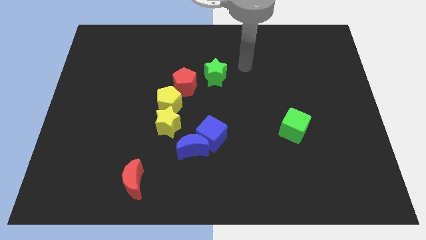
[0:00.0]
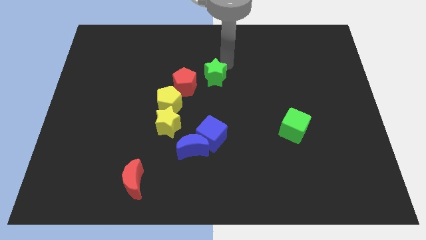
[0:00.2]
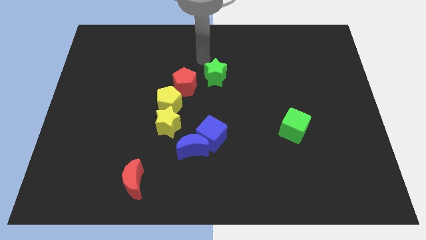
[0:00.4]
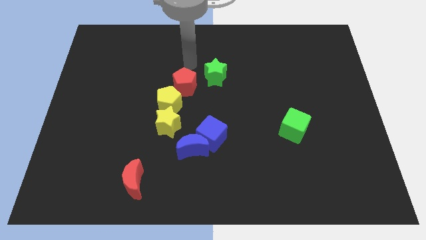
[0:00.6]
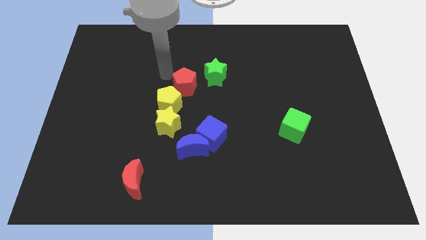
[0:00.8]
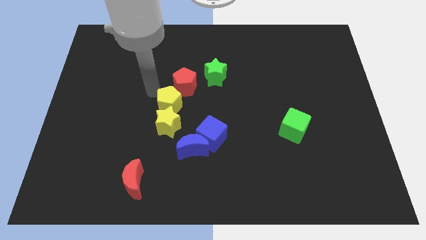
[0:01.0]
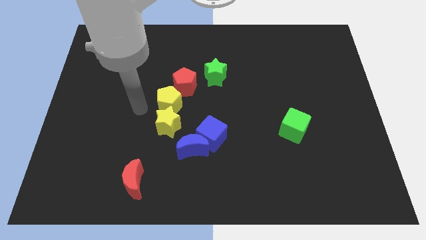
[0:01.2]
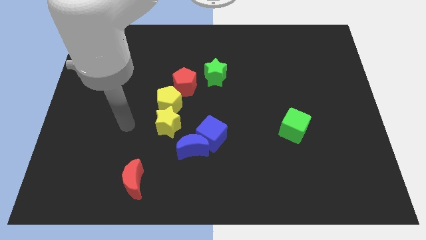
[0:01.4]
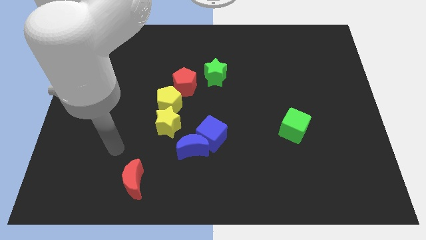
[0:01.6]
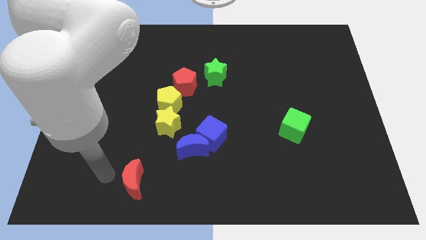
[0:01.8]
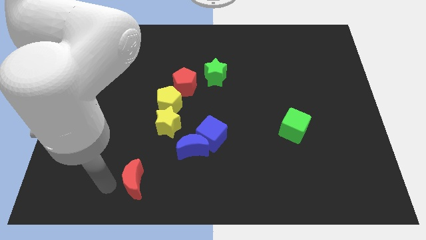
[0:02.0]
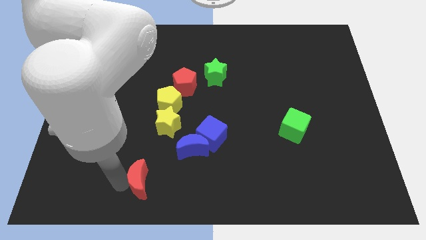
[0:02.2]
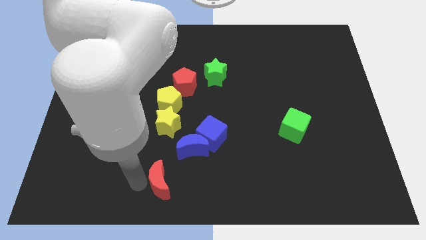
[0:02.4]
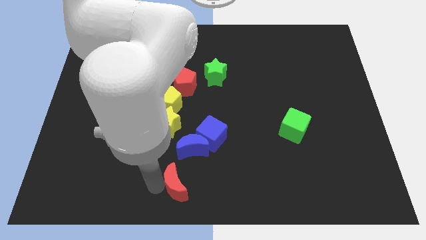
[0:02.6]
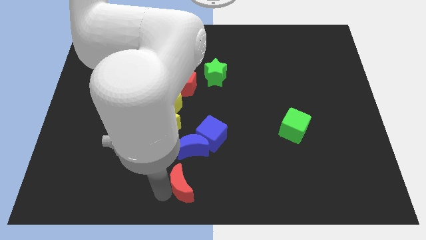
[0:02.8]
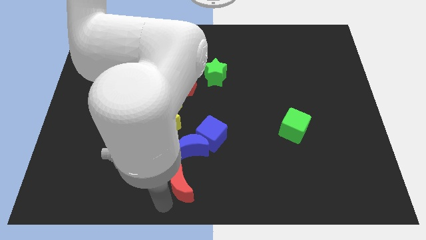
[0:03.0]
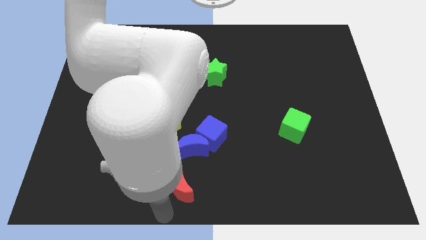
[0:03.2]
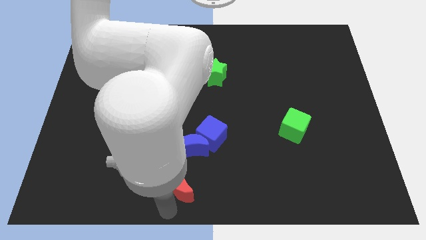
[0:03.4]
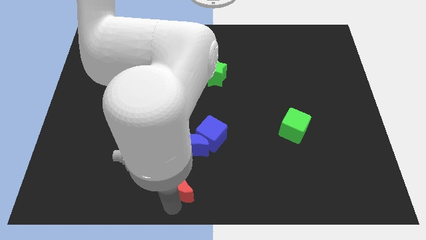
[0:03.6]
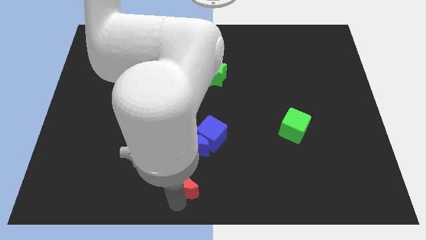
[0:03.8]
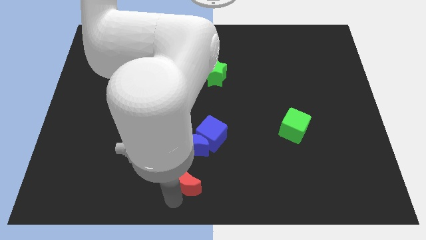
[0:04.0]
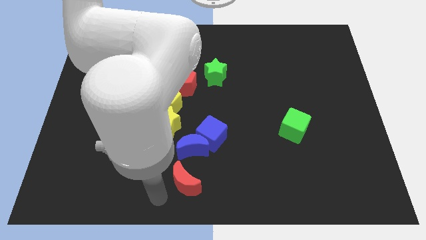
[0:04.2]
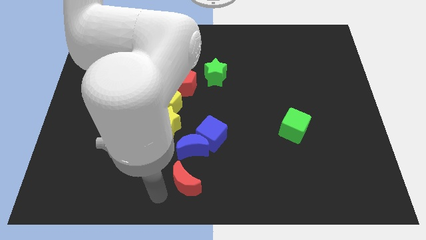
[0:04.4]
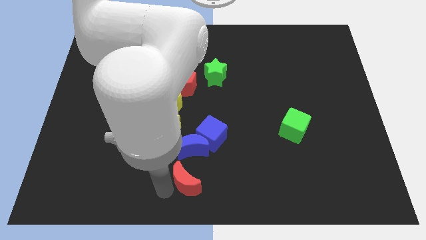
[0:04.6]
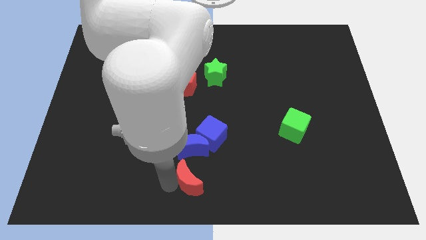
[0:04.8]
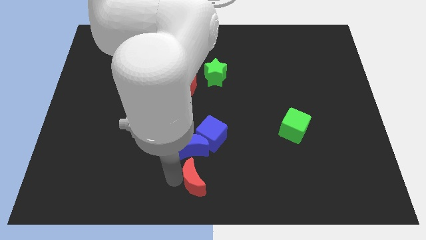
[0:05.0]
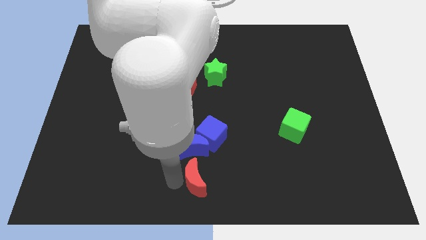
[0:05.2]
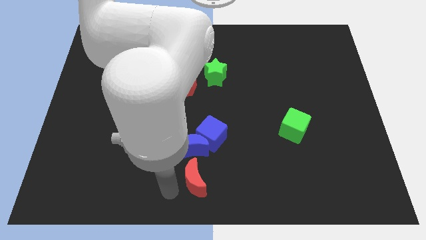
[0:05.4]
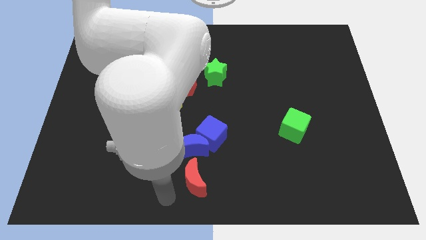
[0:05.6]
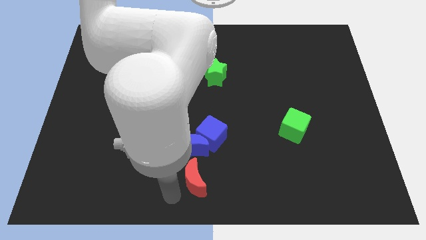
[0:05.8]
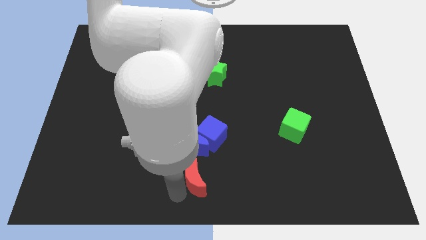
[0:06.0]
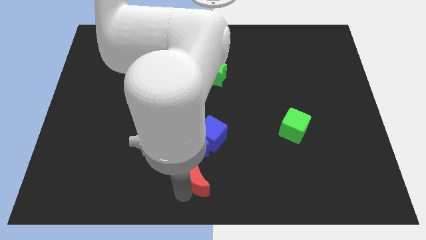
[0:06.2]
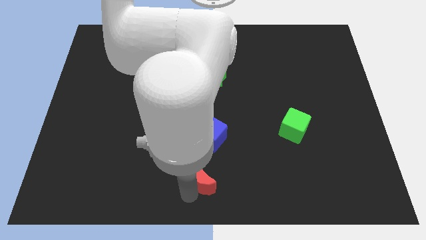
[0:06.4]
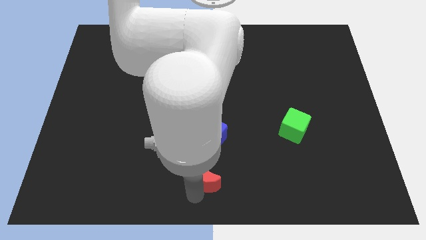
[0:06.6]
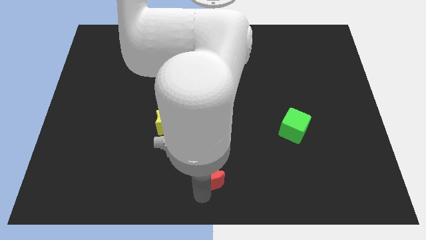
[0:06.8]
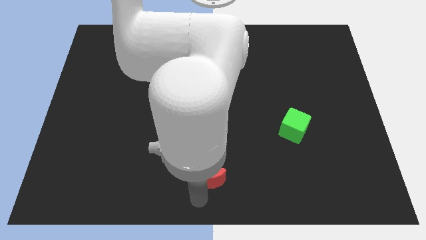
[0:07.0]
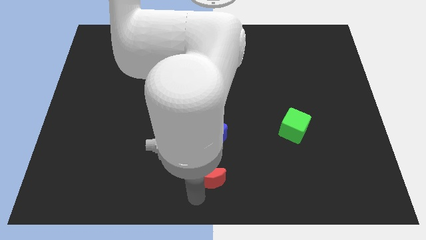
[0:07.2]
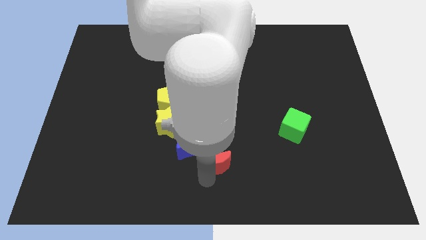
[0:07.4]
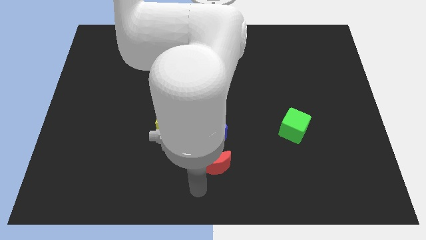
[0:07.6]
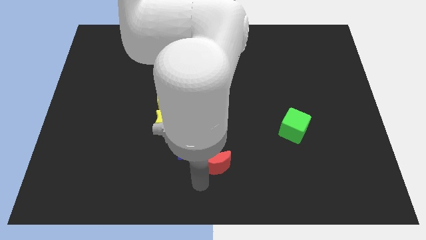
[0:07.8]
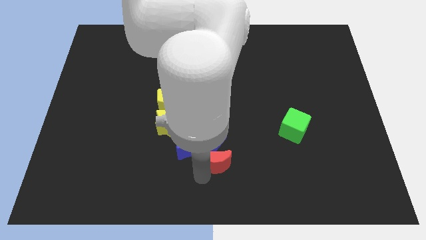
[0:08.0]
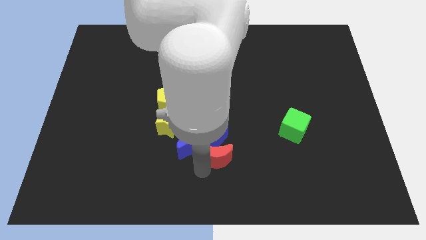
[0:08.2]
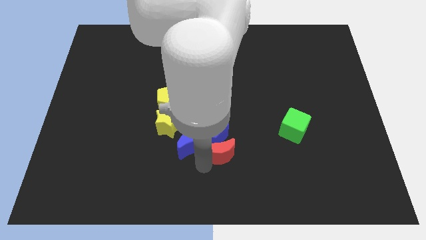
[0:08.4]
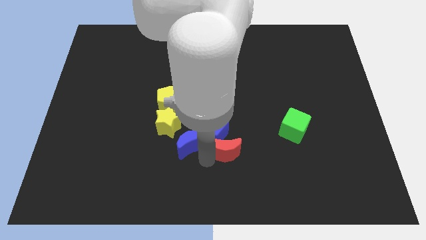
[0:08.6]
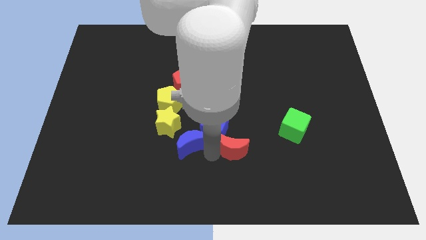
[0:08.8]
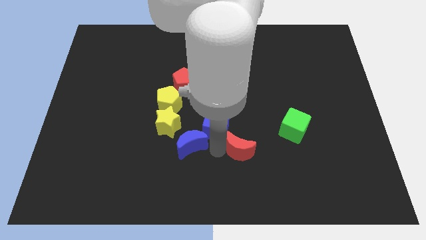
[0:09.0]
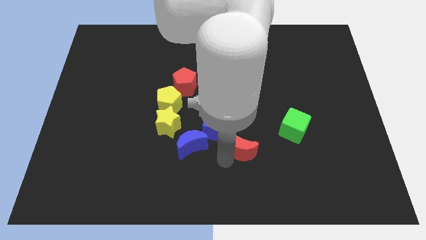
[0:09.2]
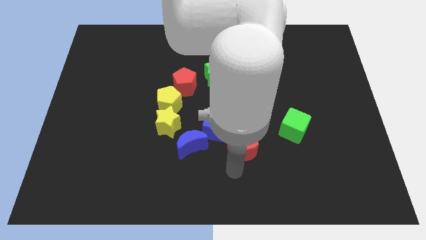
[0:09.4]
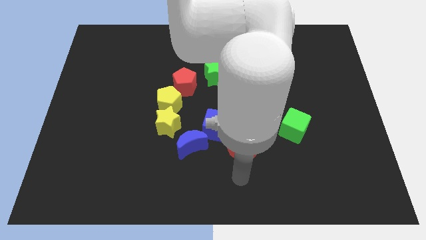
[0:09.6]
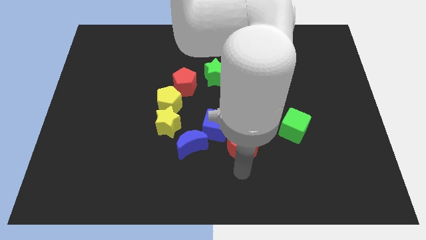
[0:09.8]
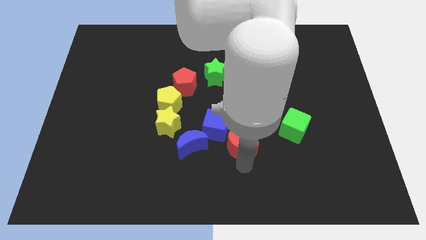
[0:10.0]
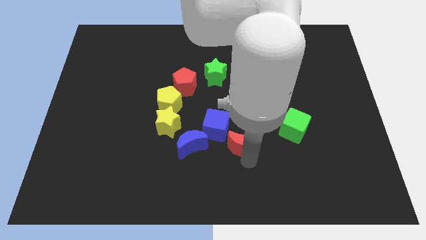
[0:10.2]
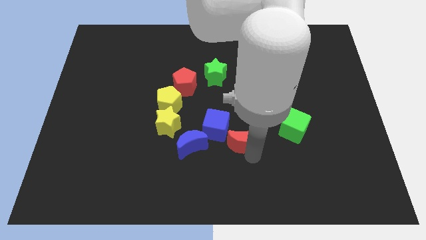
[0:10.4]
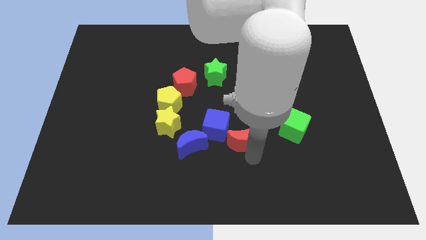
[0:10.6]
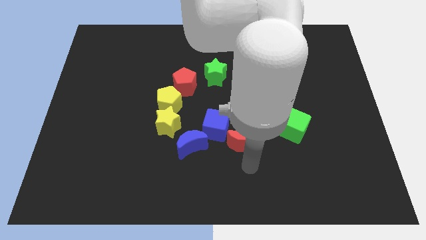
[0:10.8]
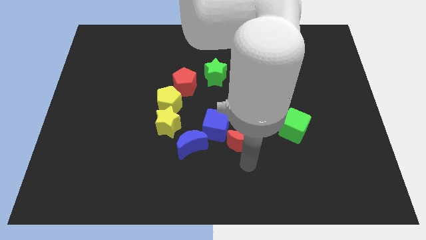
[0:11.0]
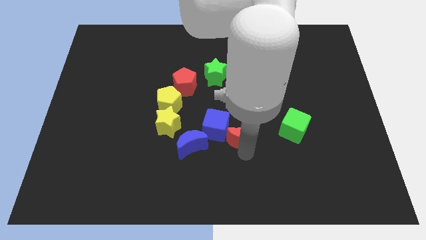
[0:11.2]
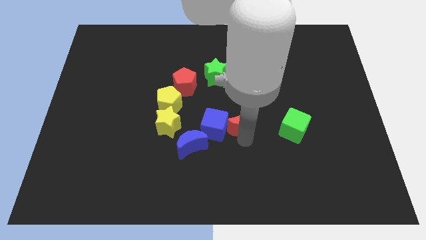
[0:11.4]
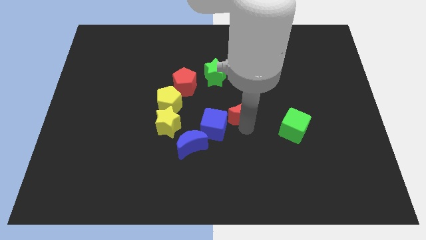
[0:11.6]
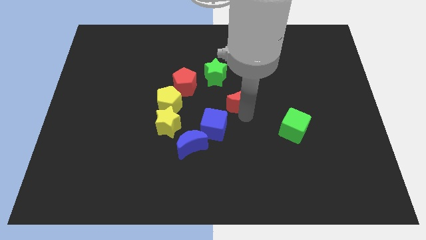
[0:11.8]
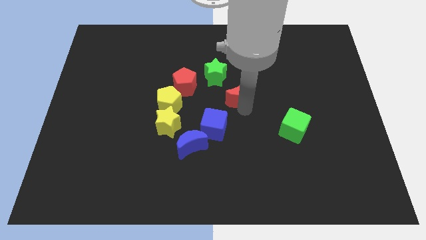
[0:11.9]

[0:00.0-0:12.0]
move the red moon to the right side of the red pentagon

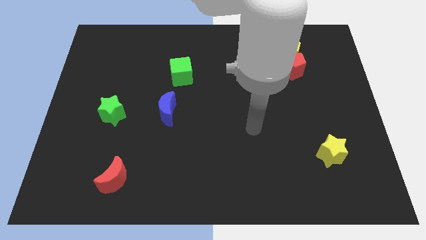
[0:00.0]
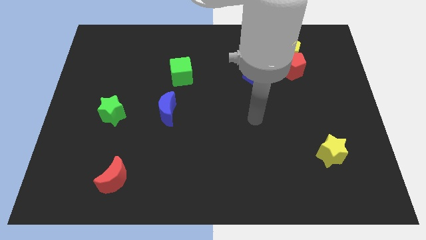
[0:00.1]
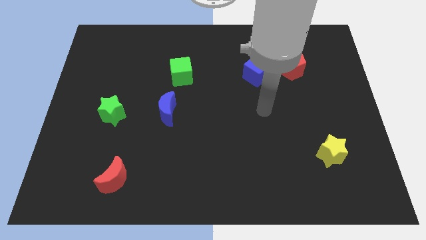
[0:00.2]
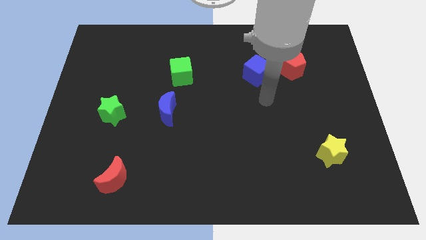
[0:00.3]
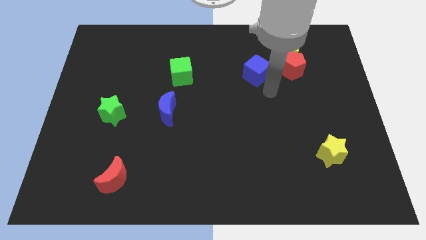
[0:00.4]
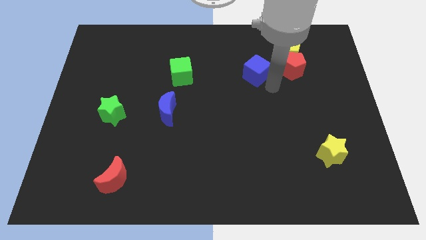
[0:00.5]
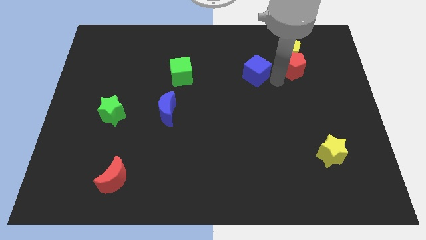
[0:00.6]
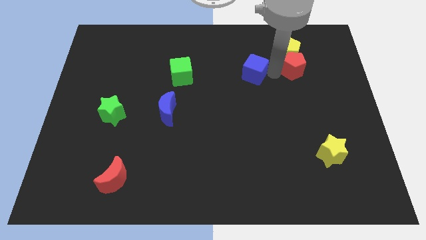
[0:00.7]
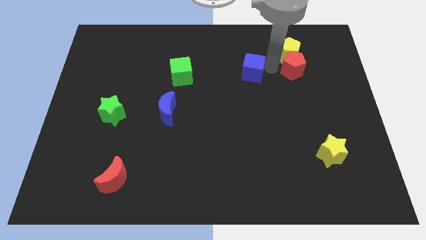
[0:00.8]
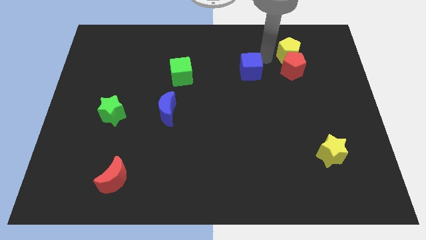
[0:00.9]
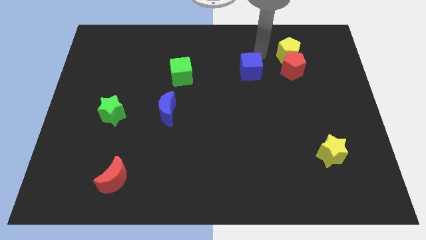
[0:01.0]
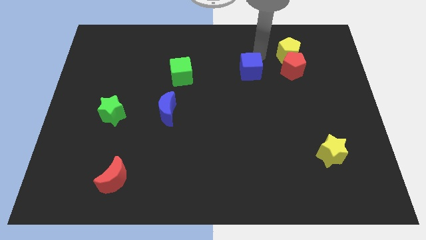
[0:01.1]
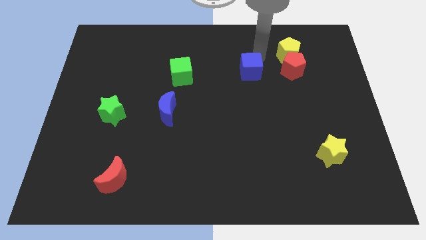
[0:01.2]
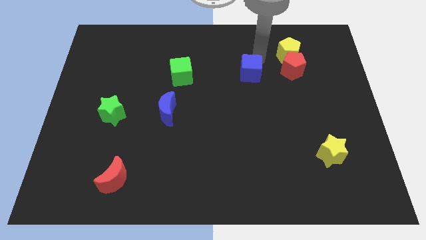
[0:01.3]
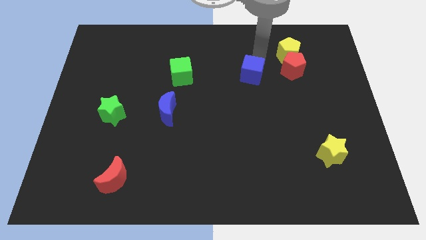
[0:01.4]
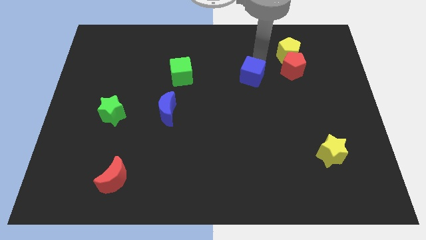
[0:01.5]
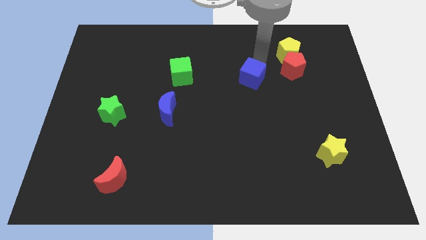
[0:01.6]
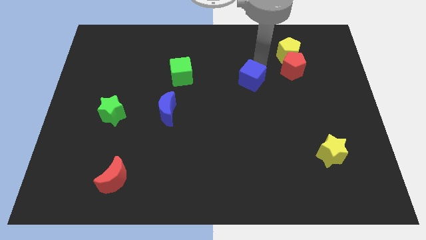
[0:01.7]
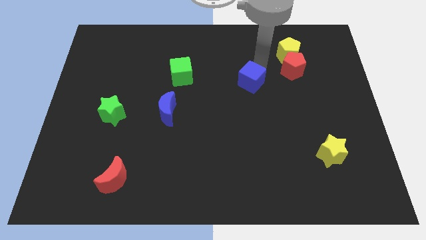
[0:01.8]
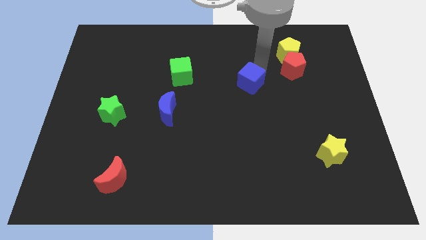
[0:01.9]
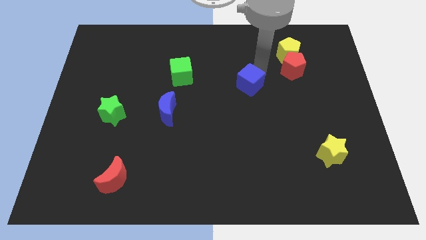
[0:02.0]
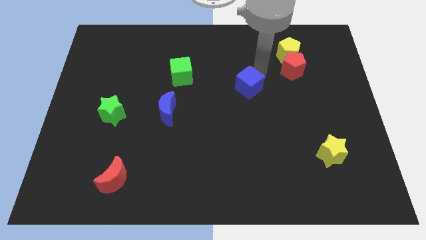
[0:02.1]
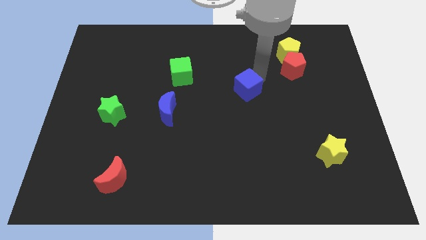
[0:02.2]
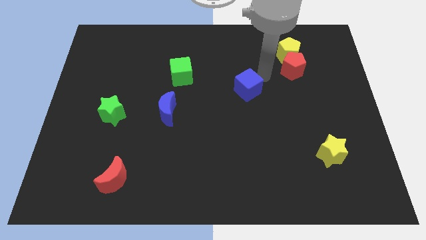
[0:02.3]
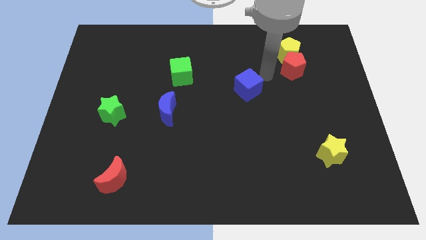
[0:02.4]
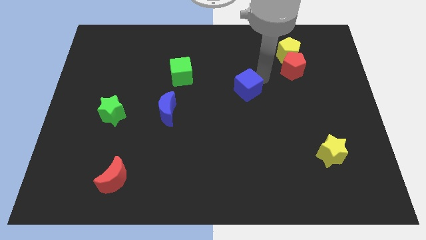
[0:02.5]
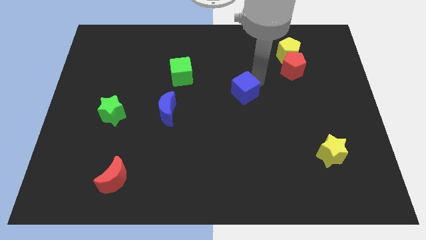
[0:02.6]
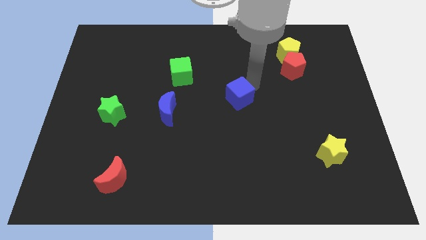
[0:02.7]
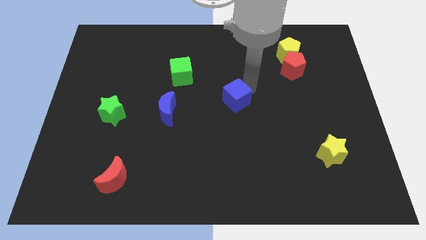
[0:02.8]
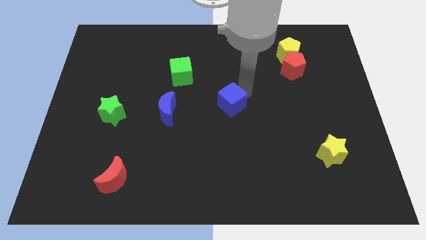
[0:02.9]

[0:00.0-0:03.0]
put the blue cube to the right of the blue moon
